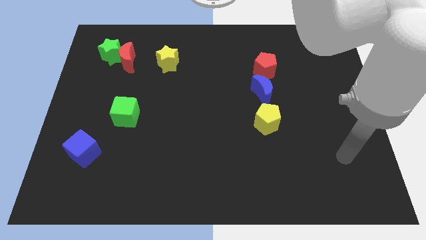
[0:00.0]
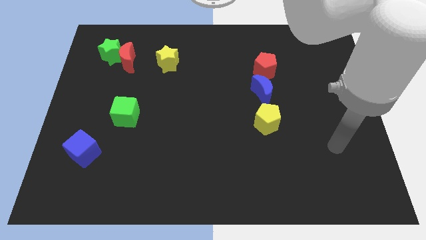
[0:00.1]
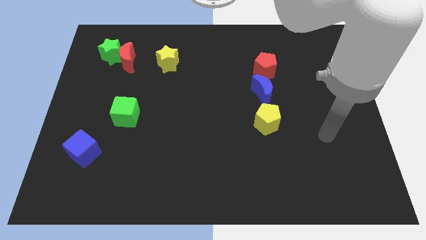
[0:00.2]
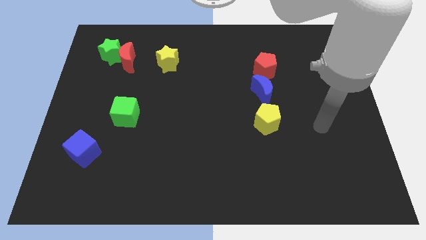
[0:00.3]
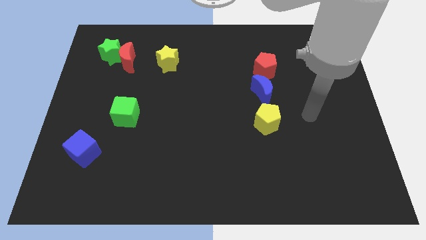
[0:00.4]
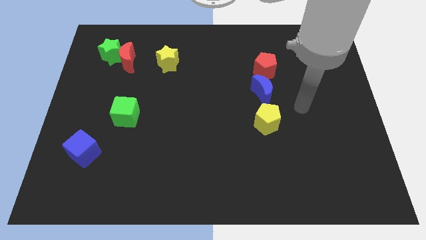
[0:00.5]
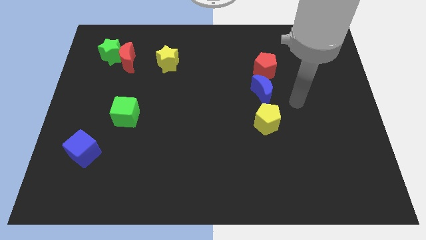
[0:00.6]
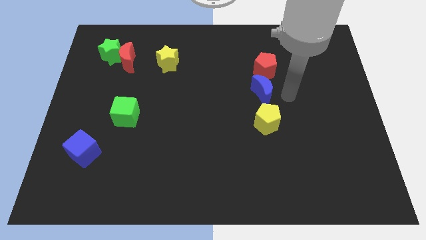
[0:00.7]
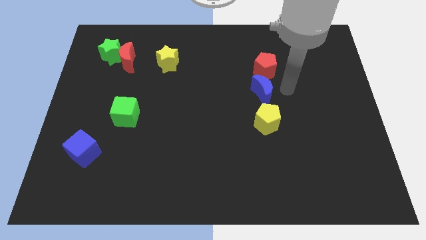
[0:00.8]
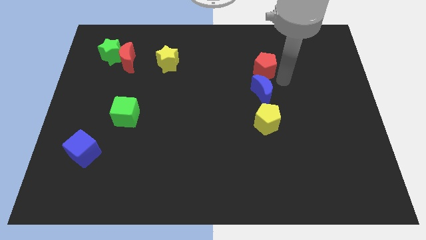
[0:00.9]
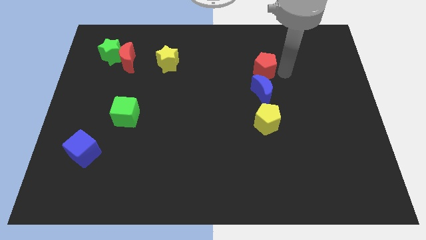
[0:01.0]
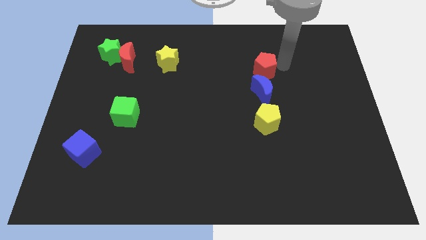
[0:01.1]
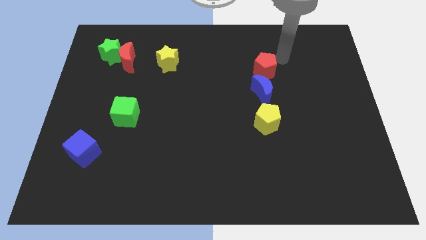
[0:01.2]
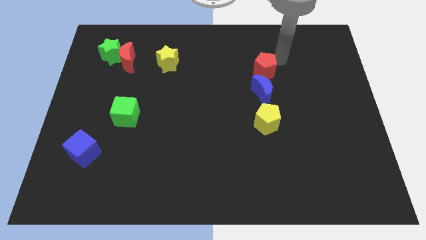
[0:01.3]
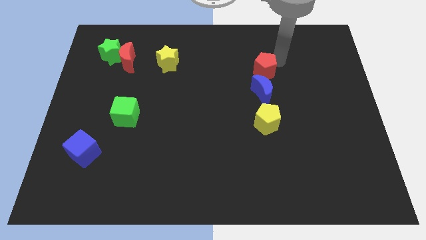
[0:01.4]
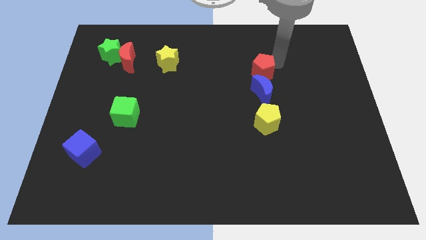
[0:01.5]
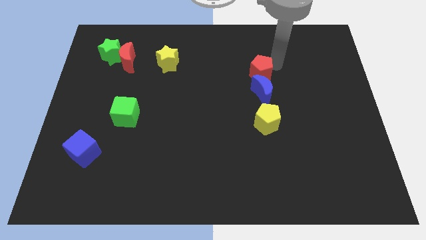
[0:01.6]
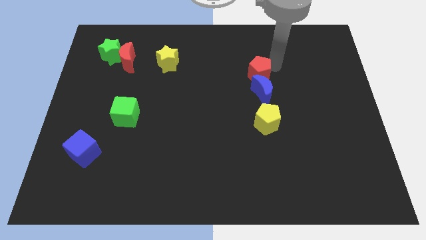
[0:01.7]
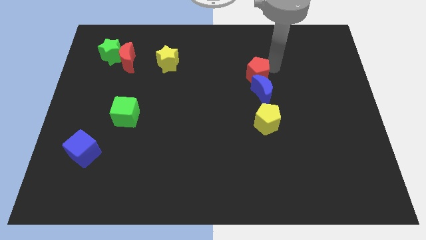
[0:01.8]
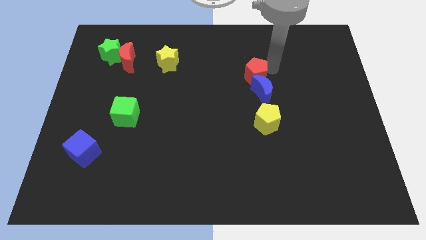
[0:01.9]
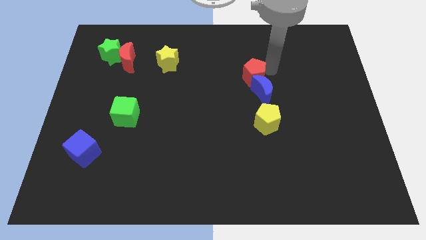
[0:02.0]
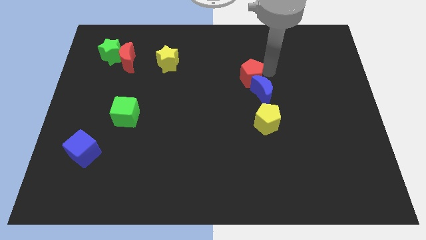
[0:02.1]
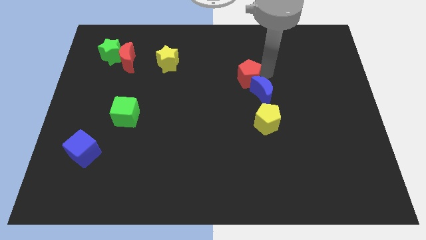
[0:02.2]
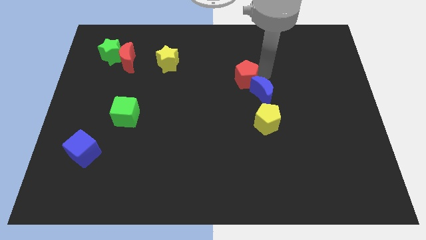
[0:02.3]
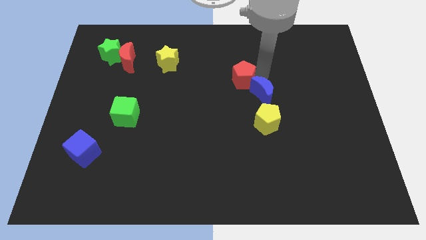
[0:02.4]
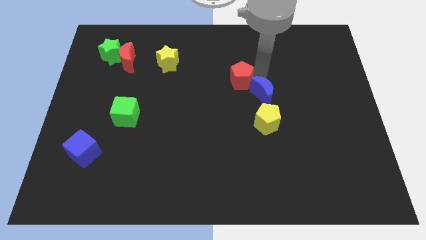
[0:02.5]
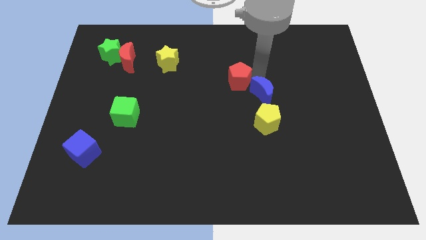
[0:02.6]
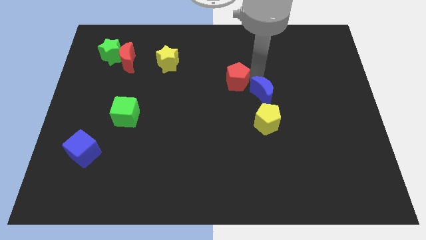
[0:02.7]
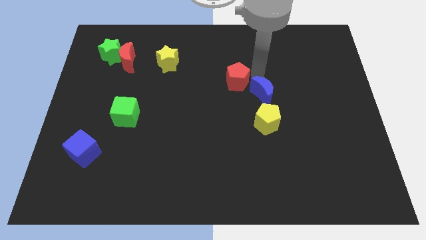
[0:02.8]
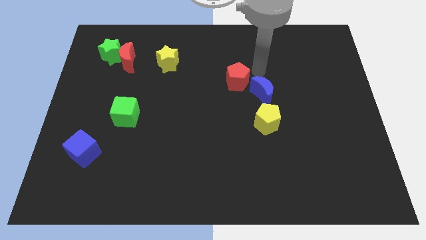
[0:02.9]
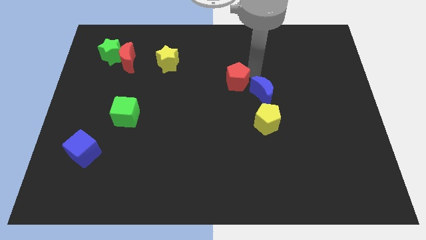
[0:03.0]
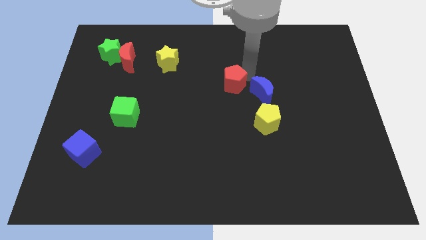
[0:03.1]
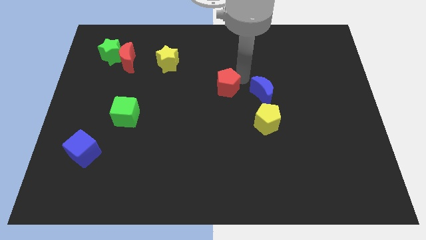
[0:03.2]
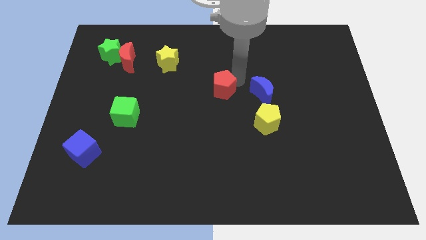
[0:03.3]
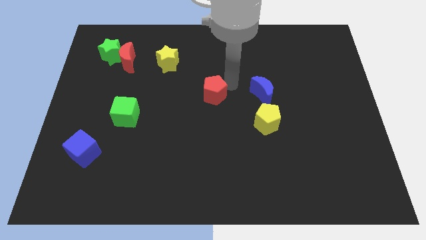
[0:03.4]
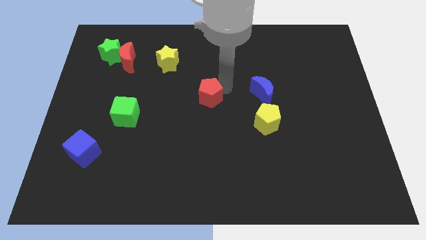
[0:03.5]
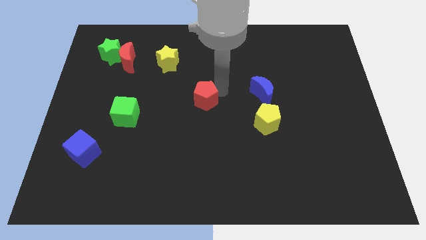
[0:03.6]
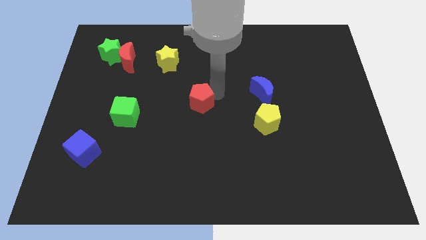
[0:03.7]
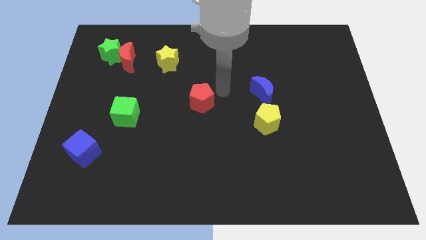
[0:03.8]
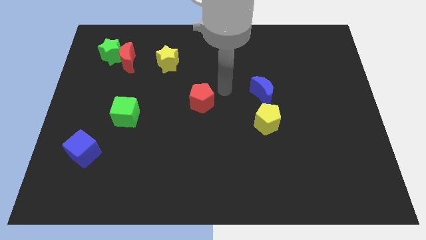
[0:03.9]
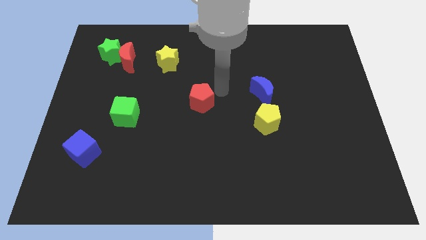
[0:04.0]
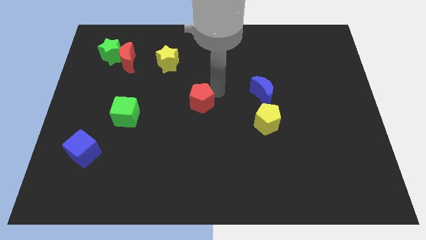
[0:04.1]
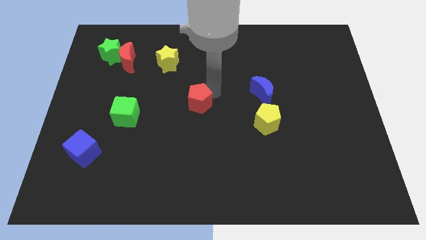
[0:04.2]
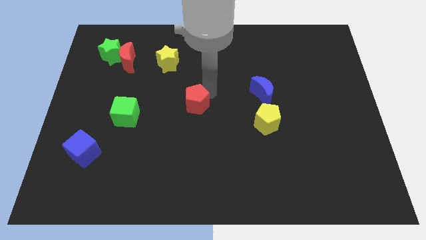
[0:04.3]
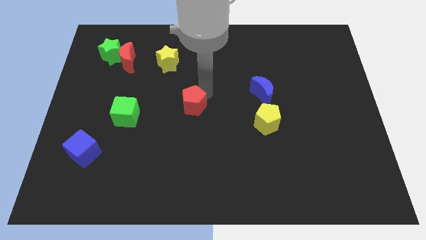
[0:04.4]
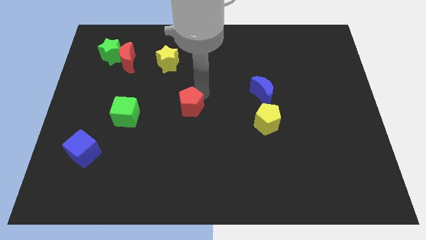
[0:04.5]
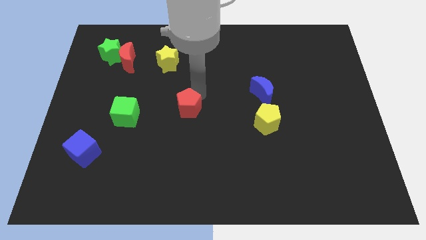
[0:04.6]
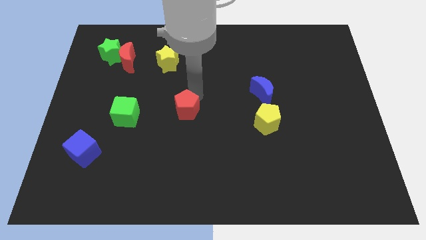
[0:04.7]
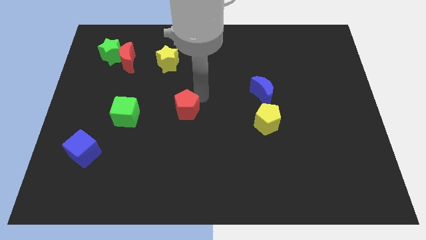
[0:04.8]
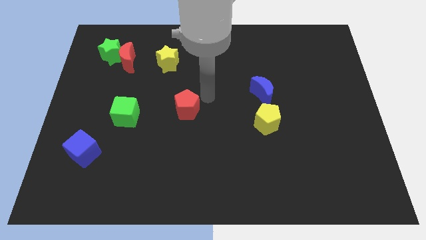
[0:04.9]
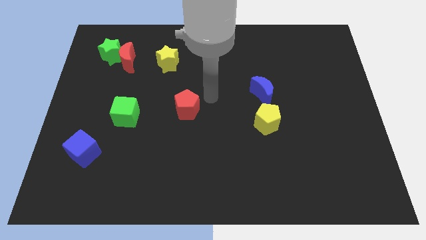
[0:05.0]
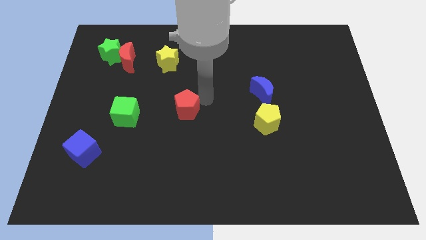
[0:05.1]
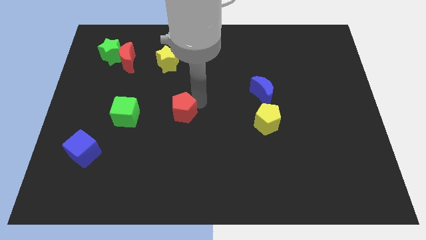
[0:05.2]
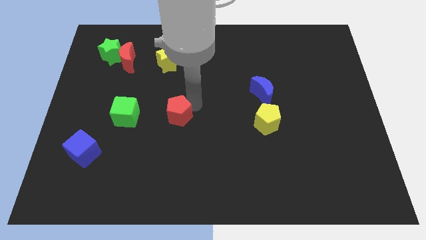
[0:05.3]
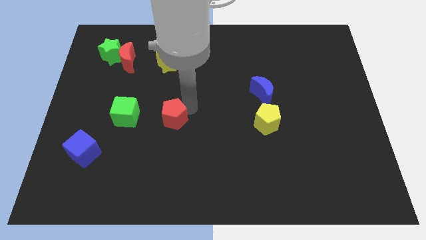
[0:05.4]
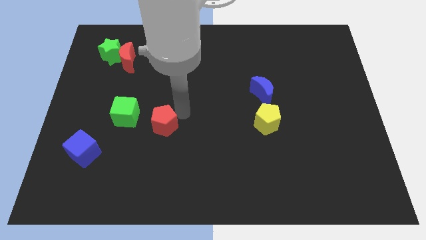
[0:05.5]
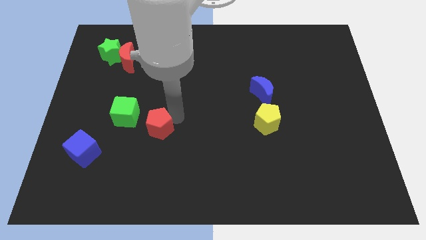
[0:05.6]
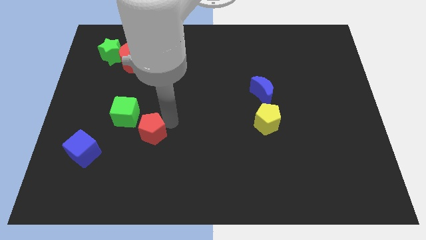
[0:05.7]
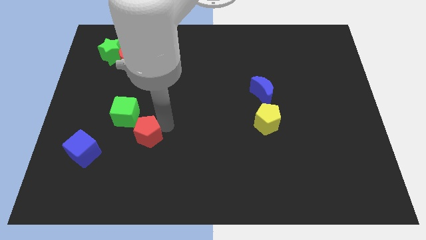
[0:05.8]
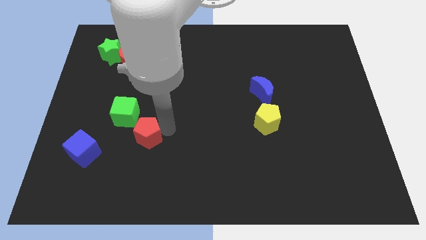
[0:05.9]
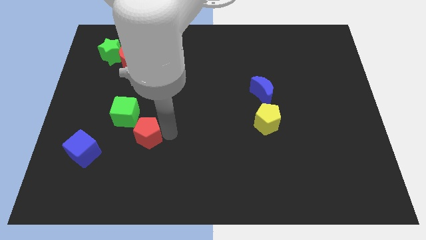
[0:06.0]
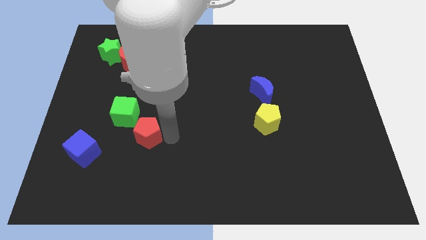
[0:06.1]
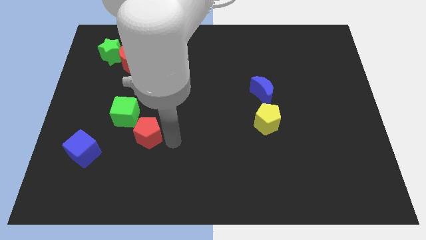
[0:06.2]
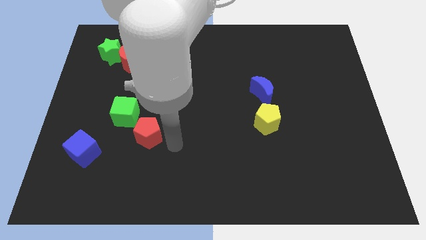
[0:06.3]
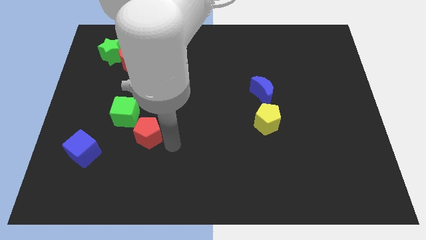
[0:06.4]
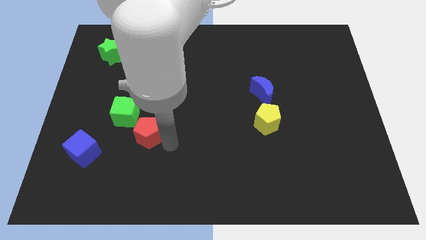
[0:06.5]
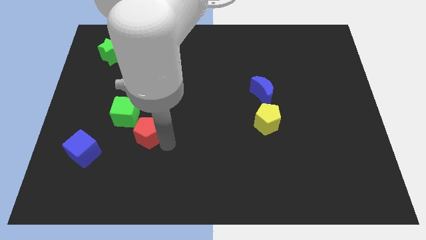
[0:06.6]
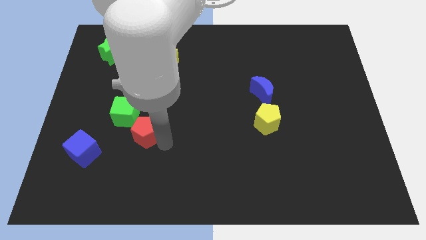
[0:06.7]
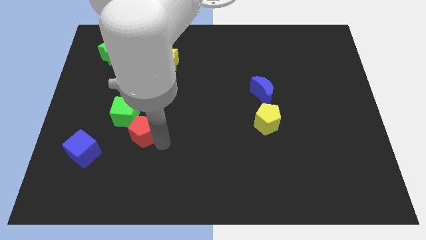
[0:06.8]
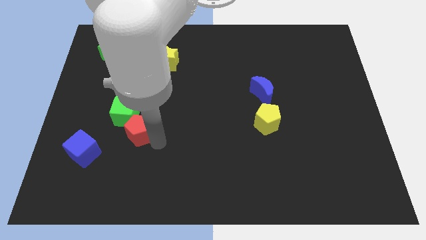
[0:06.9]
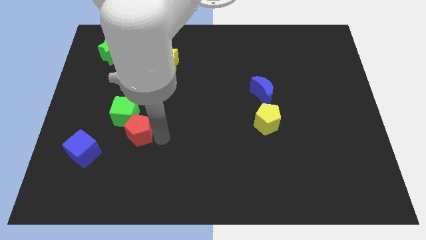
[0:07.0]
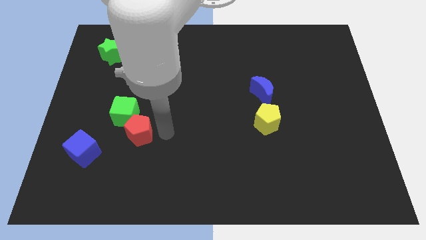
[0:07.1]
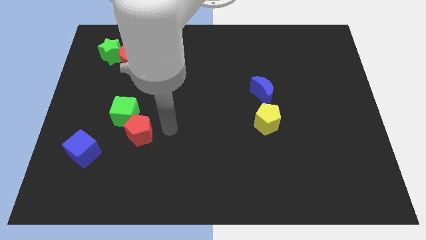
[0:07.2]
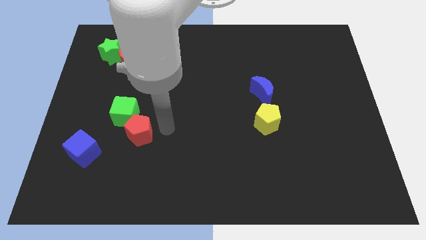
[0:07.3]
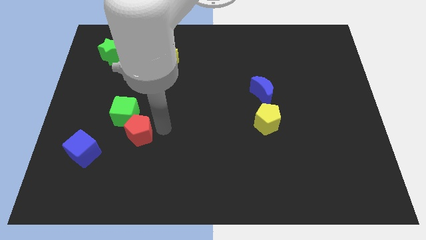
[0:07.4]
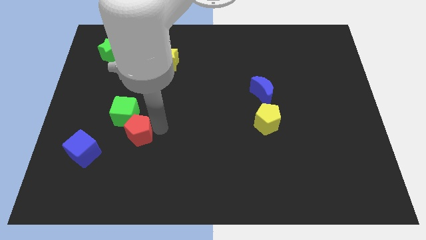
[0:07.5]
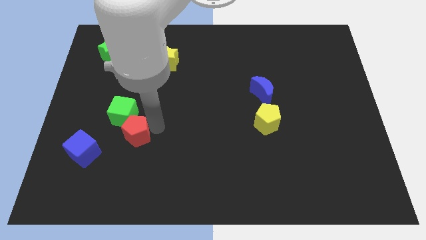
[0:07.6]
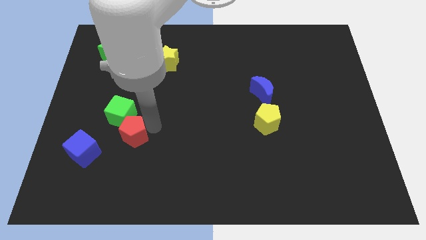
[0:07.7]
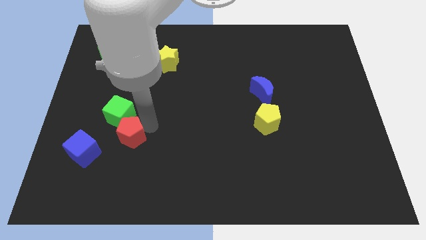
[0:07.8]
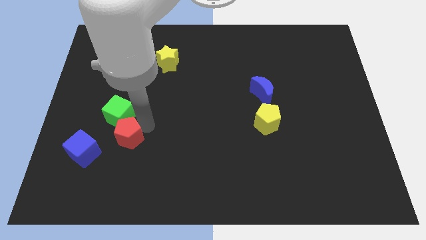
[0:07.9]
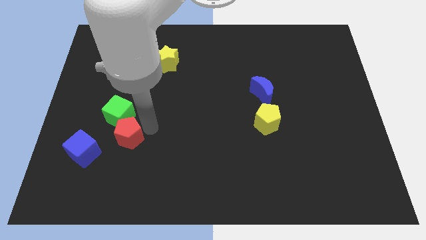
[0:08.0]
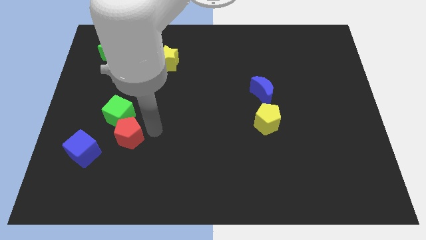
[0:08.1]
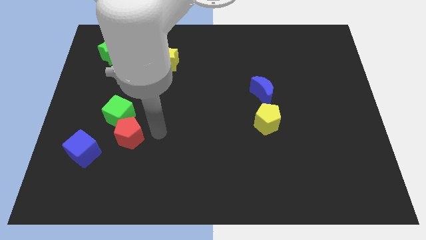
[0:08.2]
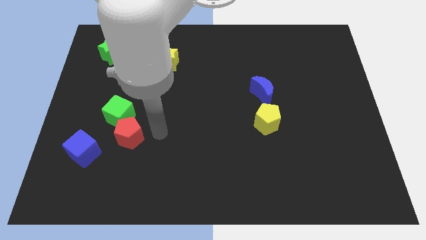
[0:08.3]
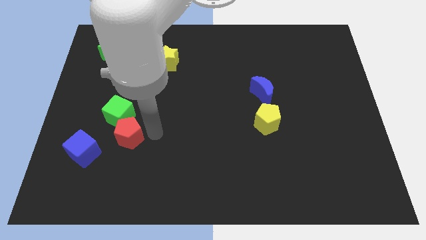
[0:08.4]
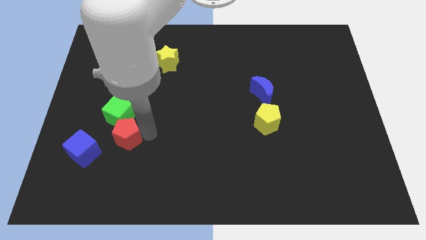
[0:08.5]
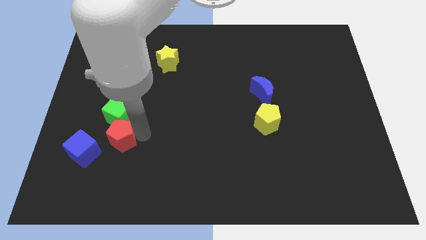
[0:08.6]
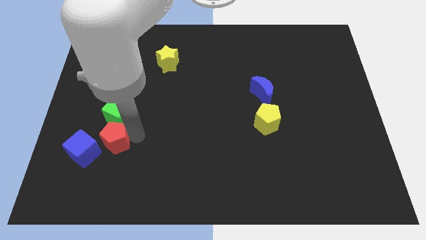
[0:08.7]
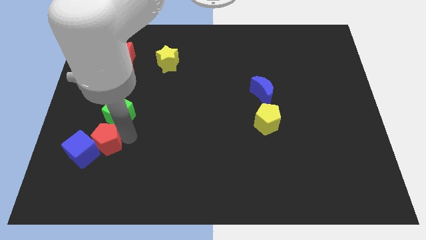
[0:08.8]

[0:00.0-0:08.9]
slide the red pentagon towards the blue cube
